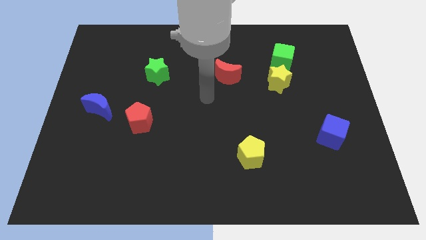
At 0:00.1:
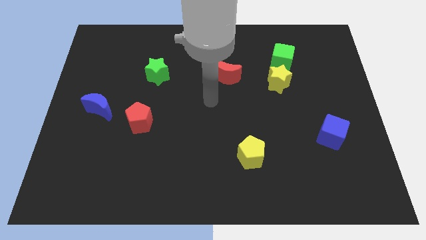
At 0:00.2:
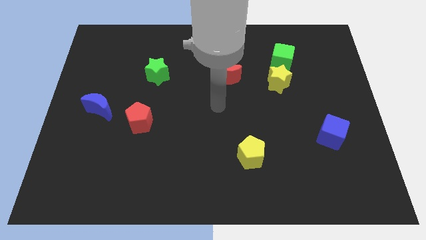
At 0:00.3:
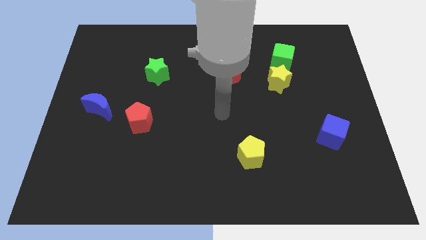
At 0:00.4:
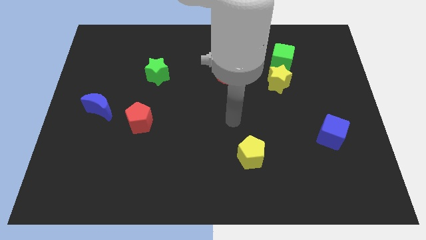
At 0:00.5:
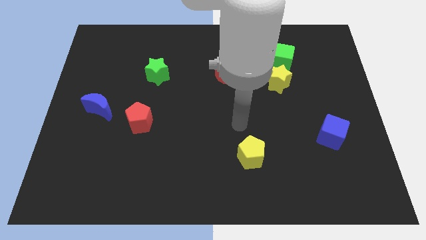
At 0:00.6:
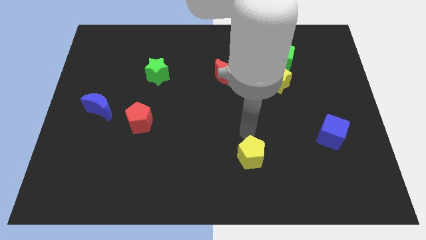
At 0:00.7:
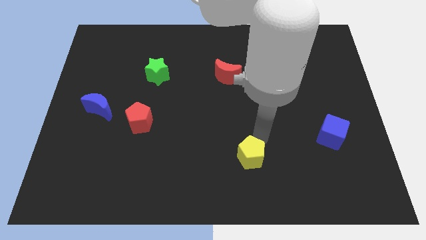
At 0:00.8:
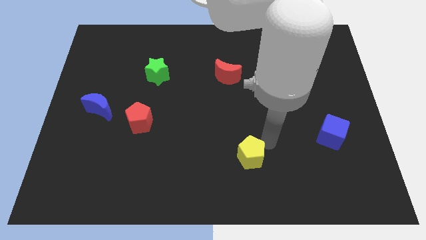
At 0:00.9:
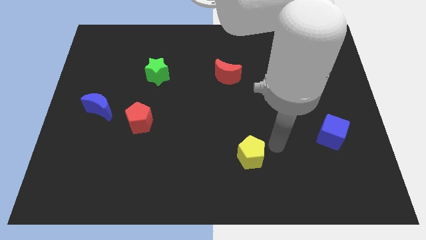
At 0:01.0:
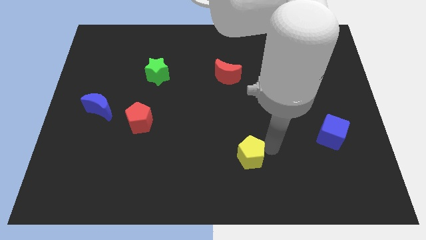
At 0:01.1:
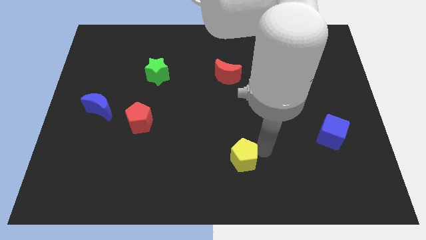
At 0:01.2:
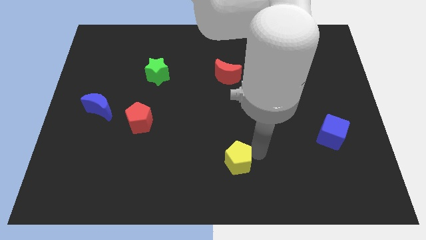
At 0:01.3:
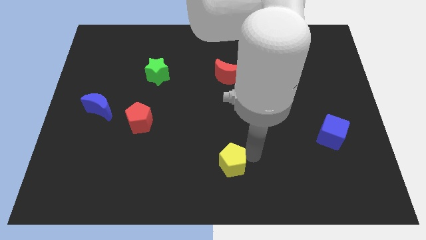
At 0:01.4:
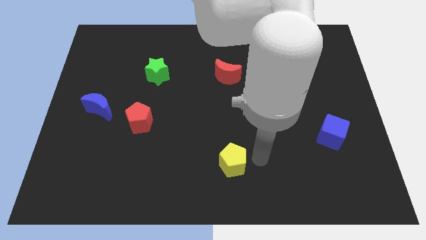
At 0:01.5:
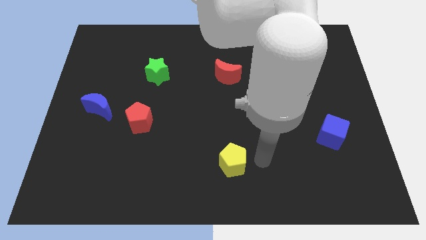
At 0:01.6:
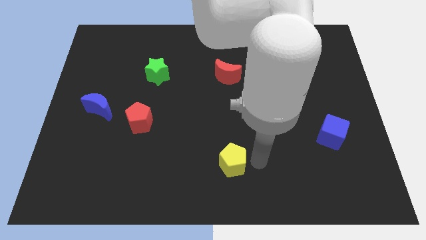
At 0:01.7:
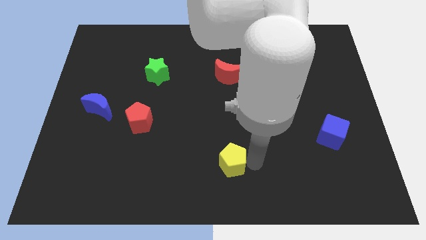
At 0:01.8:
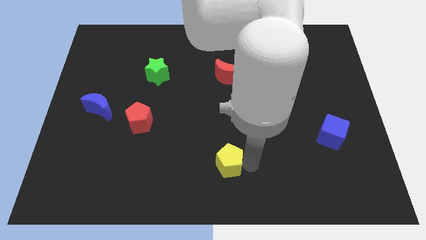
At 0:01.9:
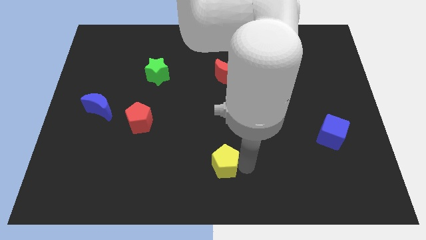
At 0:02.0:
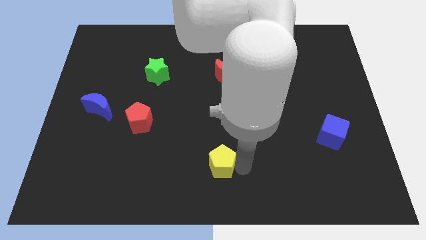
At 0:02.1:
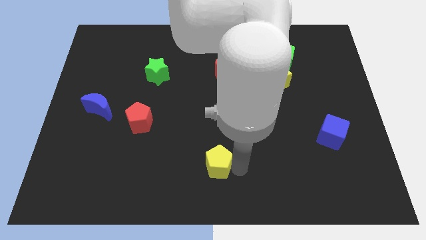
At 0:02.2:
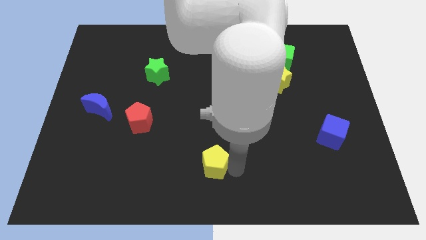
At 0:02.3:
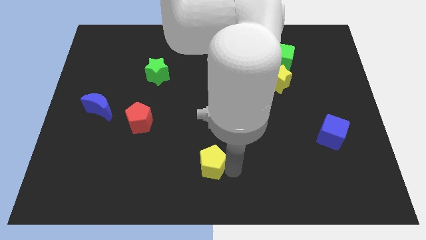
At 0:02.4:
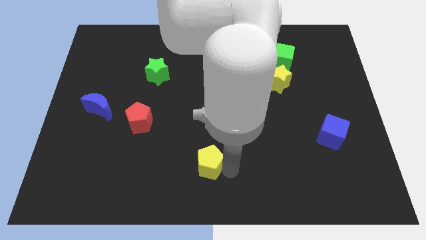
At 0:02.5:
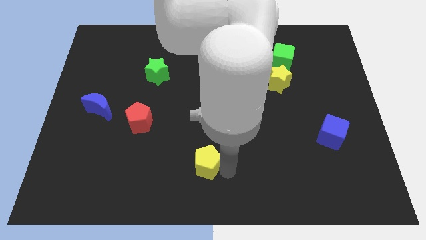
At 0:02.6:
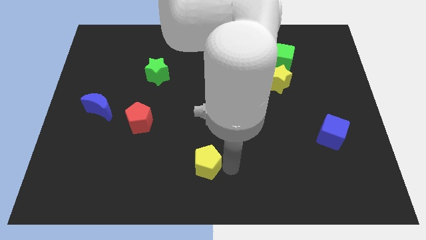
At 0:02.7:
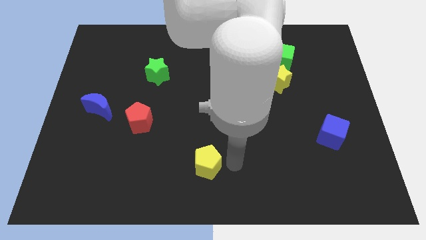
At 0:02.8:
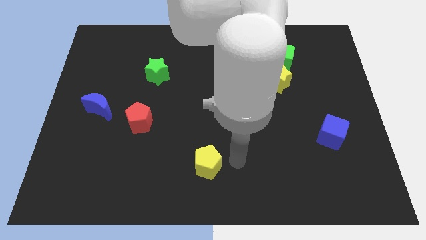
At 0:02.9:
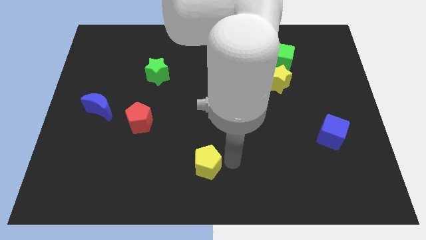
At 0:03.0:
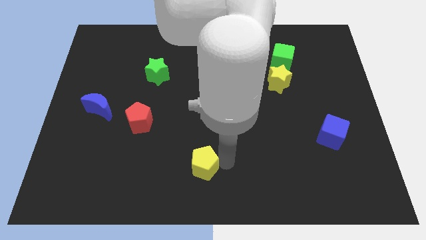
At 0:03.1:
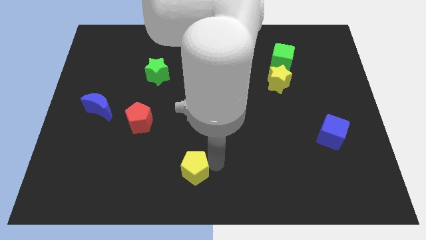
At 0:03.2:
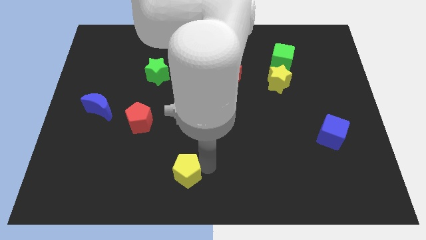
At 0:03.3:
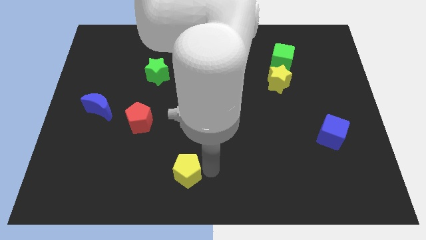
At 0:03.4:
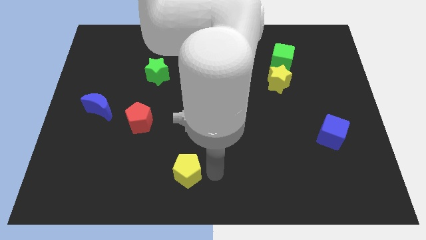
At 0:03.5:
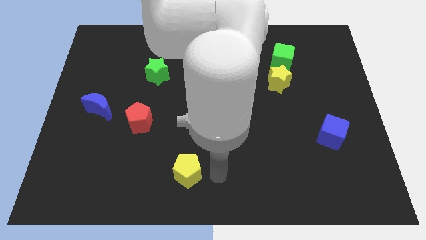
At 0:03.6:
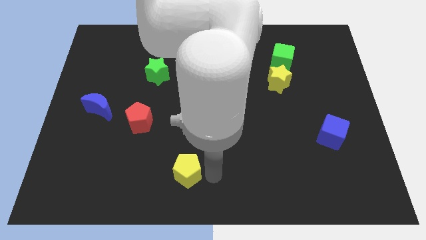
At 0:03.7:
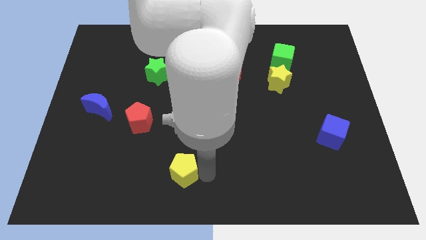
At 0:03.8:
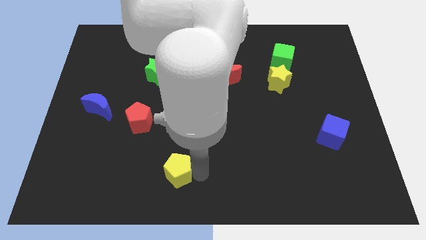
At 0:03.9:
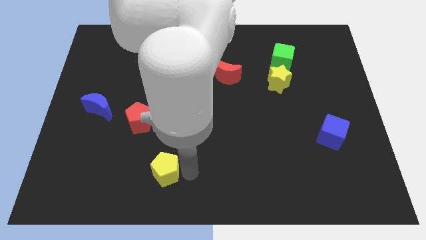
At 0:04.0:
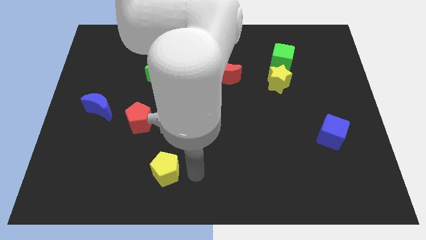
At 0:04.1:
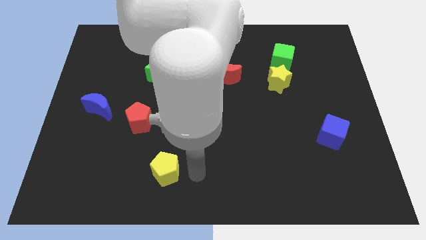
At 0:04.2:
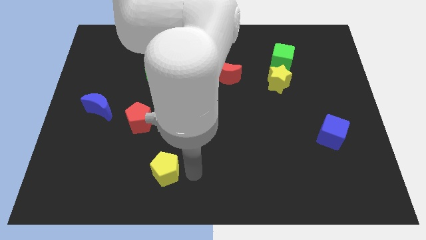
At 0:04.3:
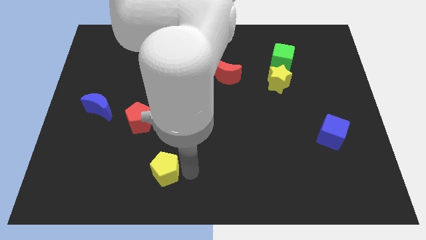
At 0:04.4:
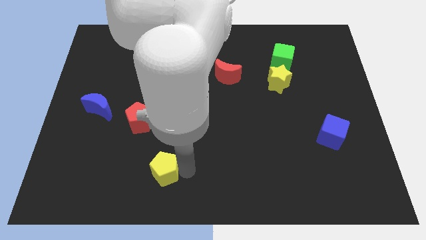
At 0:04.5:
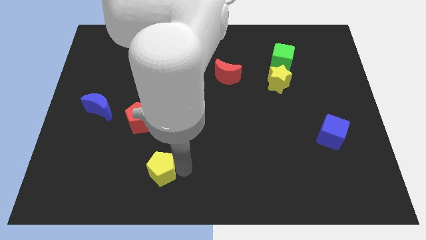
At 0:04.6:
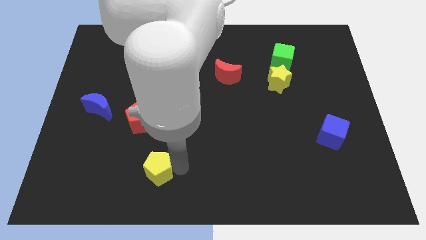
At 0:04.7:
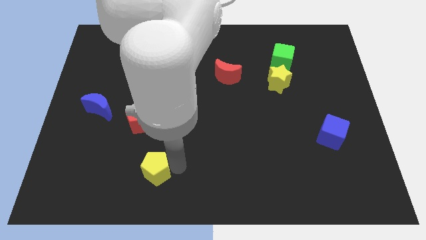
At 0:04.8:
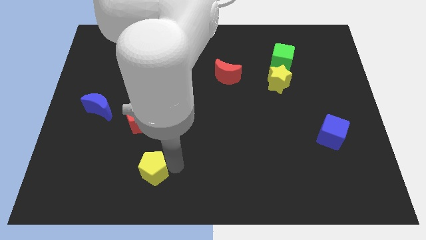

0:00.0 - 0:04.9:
slide the yellow pentagon left

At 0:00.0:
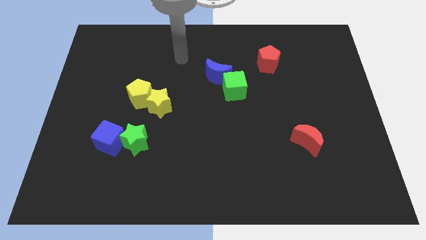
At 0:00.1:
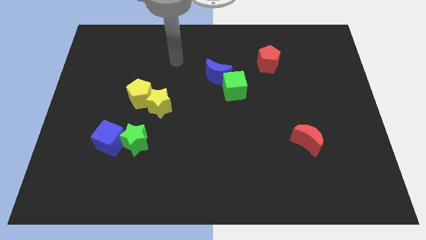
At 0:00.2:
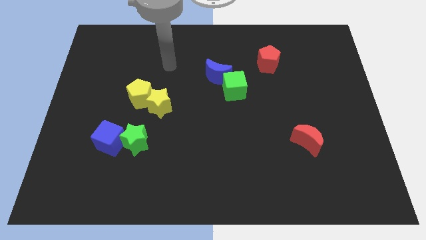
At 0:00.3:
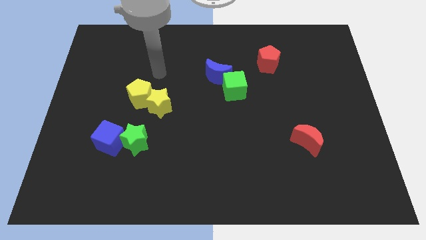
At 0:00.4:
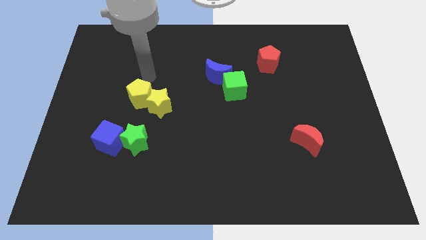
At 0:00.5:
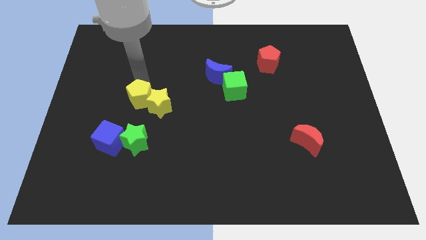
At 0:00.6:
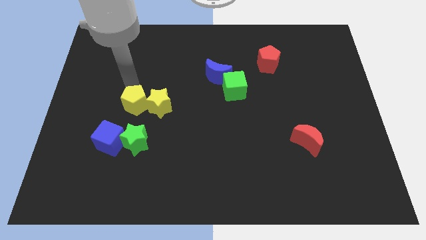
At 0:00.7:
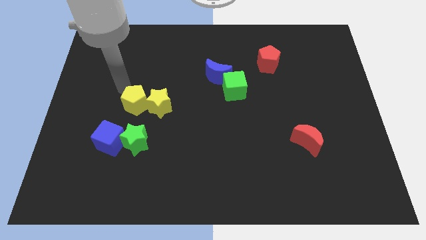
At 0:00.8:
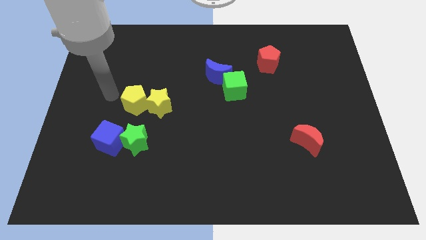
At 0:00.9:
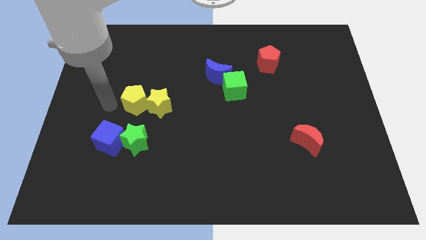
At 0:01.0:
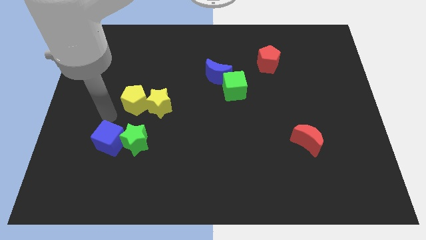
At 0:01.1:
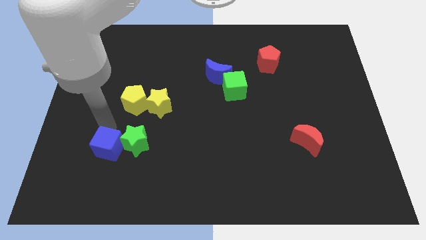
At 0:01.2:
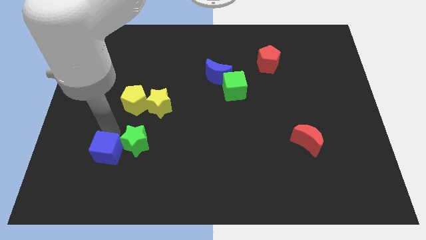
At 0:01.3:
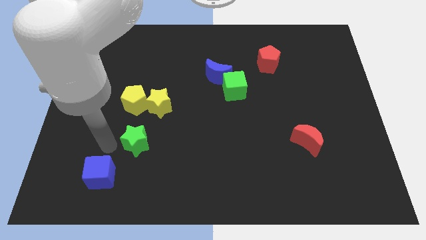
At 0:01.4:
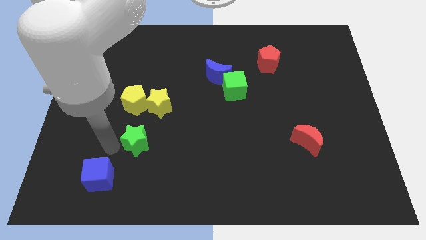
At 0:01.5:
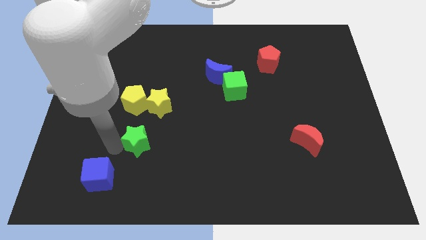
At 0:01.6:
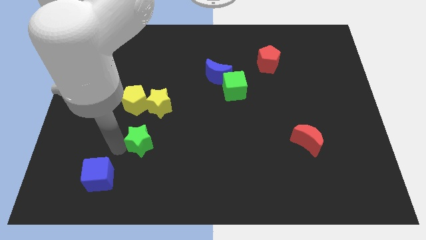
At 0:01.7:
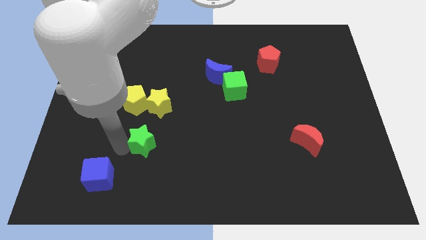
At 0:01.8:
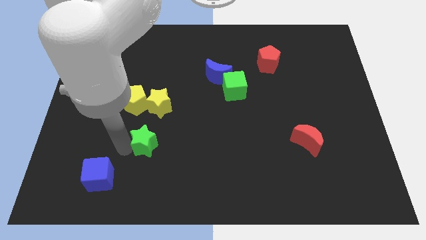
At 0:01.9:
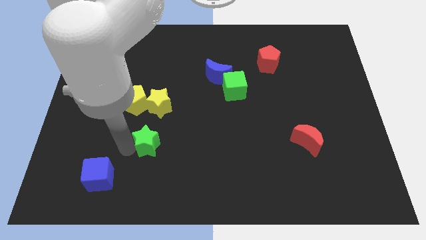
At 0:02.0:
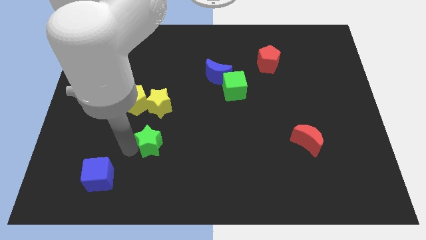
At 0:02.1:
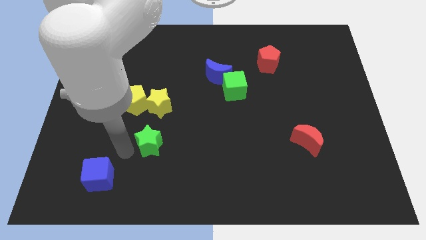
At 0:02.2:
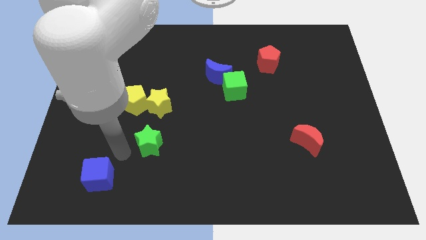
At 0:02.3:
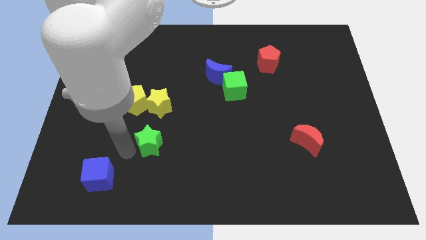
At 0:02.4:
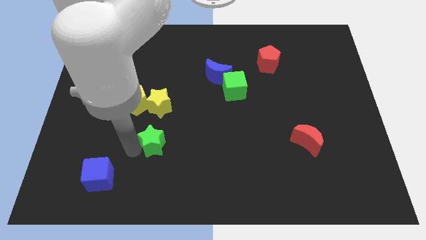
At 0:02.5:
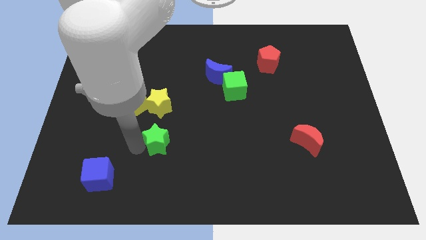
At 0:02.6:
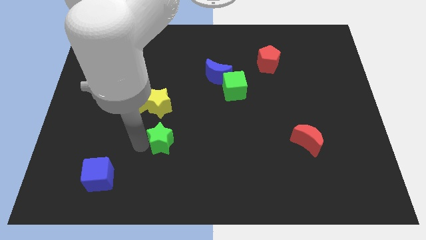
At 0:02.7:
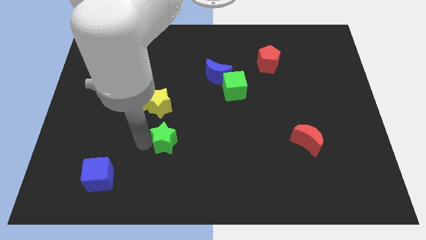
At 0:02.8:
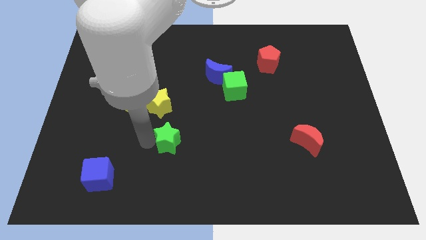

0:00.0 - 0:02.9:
push the green star slightly right

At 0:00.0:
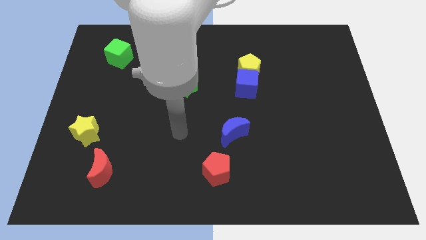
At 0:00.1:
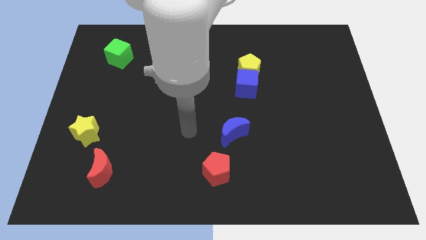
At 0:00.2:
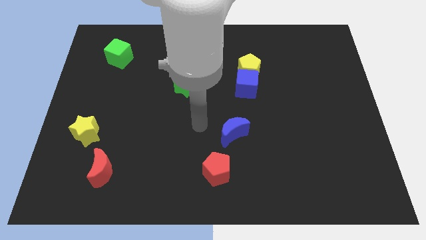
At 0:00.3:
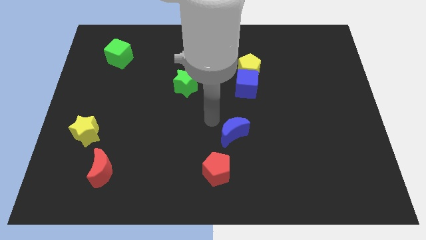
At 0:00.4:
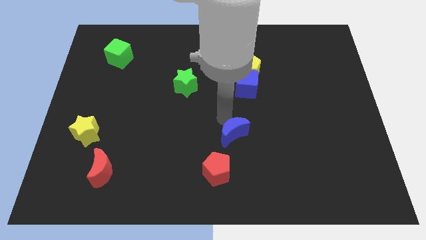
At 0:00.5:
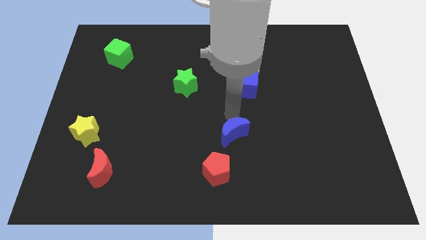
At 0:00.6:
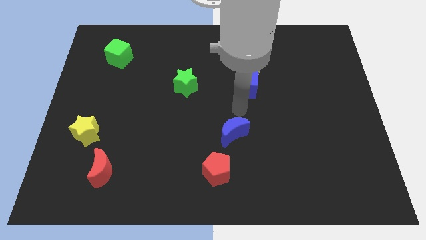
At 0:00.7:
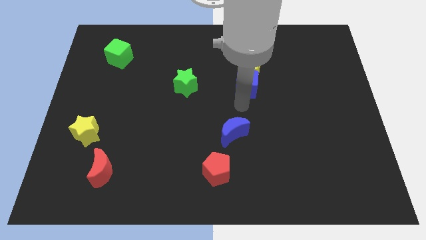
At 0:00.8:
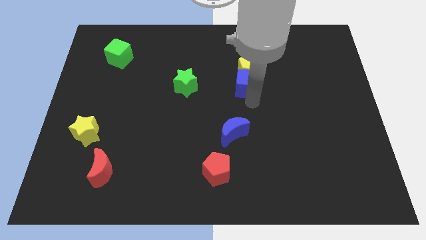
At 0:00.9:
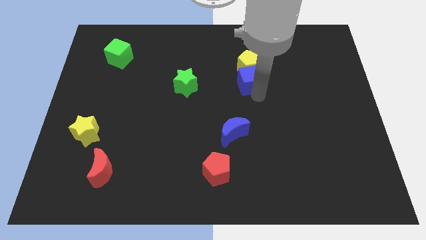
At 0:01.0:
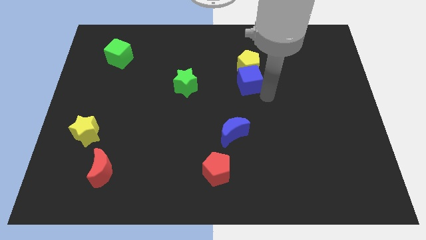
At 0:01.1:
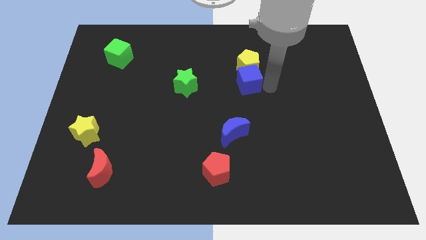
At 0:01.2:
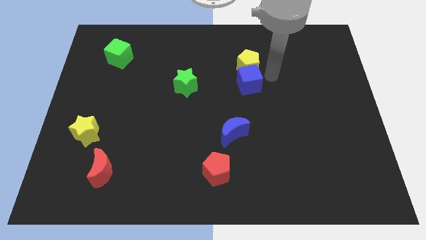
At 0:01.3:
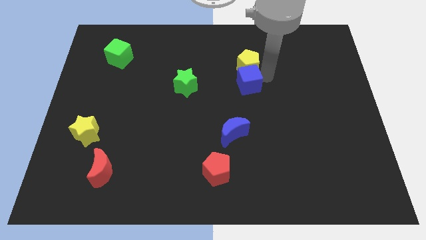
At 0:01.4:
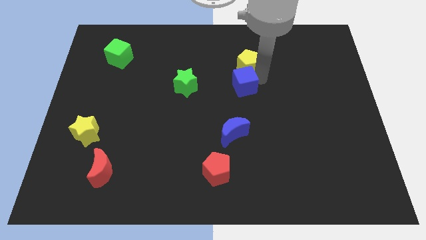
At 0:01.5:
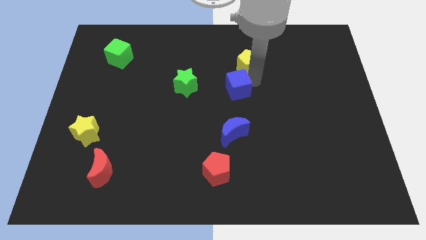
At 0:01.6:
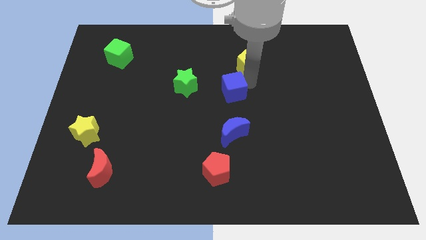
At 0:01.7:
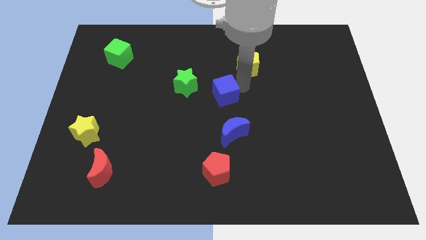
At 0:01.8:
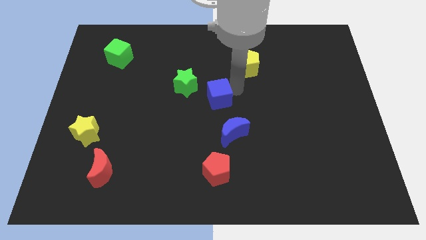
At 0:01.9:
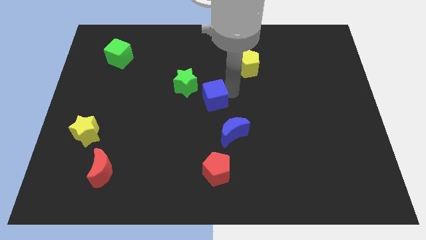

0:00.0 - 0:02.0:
slightly slide the blue cube to the left